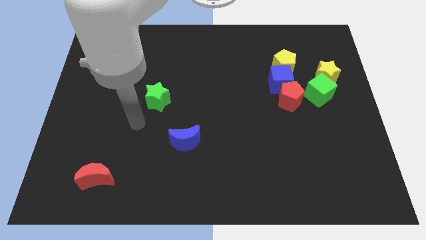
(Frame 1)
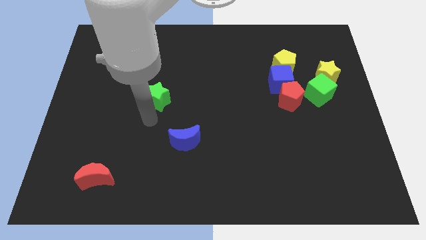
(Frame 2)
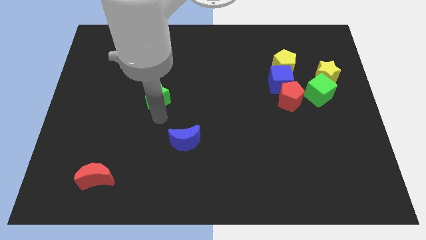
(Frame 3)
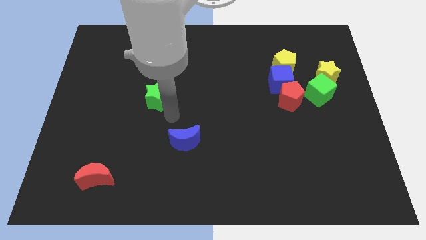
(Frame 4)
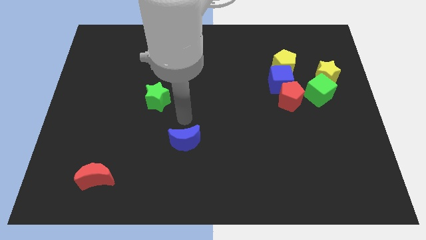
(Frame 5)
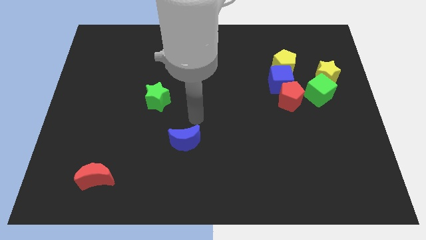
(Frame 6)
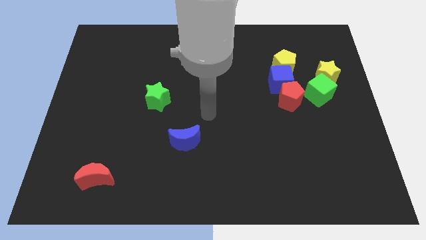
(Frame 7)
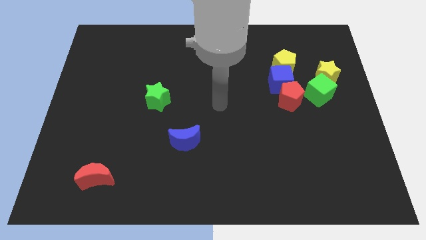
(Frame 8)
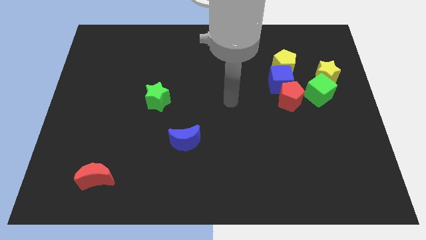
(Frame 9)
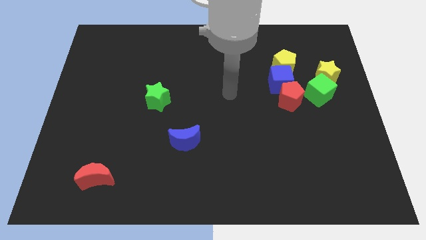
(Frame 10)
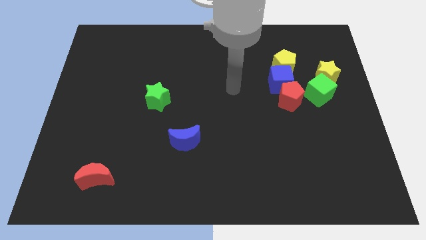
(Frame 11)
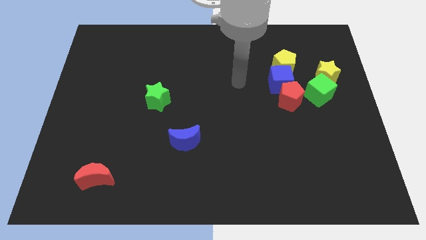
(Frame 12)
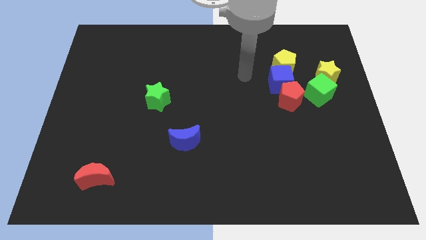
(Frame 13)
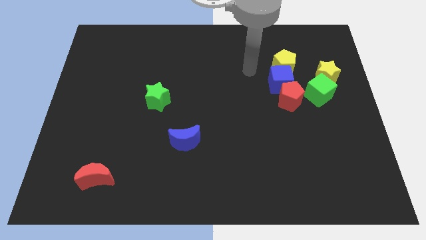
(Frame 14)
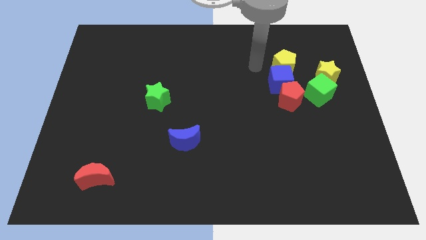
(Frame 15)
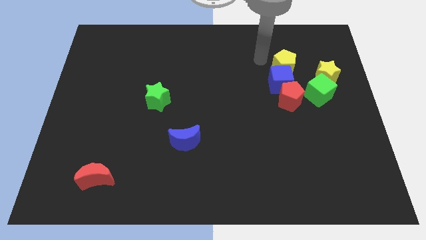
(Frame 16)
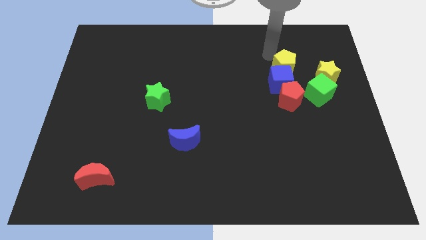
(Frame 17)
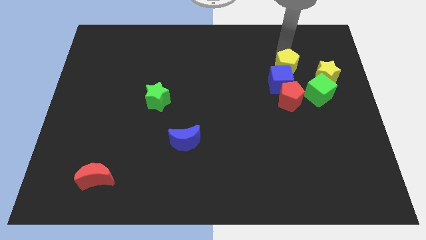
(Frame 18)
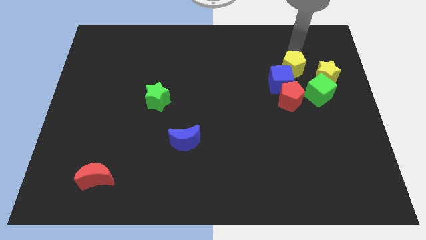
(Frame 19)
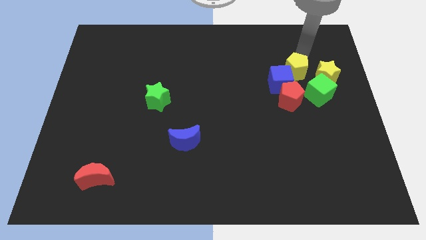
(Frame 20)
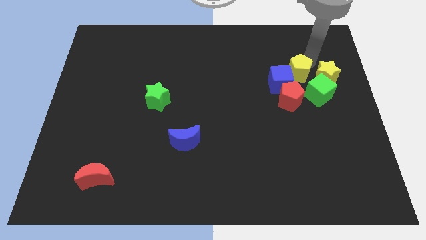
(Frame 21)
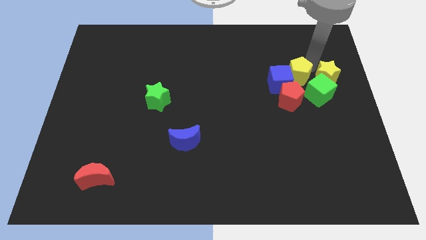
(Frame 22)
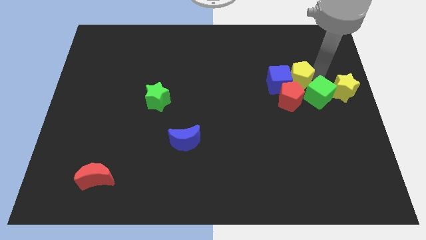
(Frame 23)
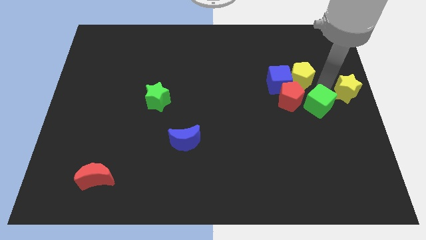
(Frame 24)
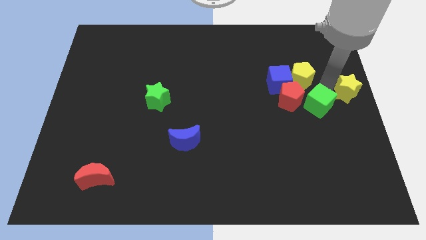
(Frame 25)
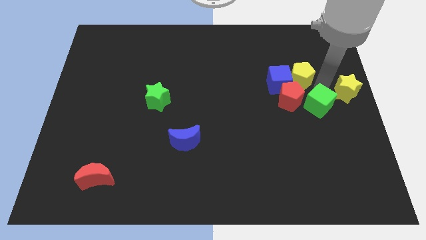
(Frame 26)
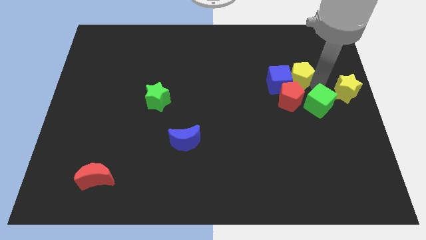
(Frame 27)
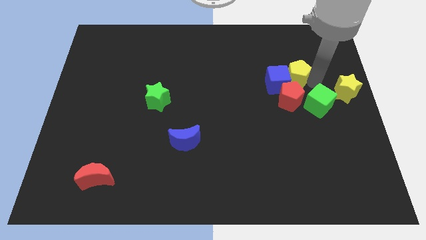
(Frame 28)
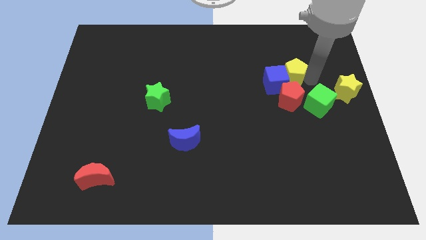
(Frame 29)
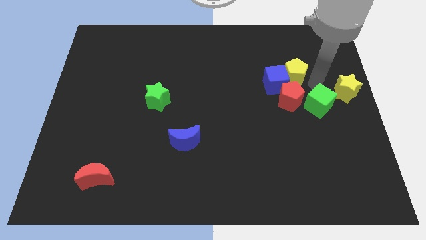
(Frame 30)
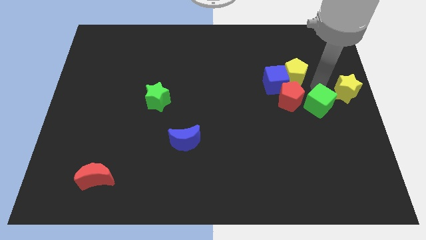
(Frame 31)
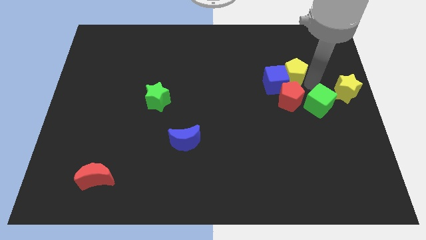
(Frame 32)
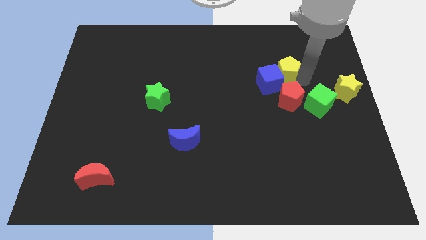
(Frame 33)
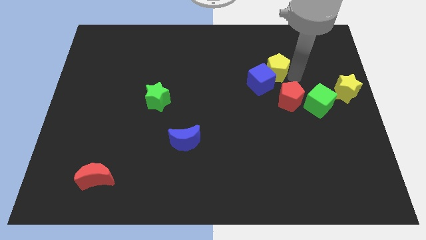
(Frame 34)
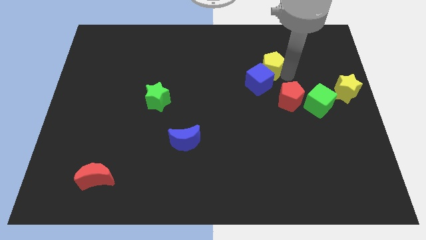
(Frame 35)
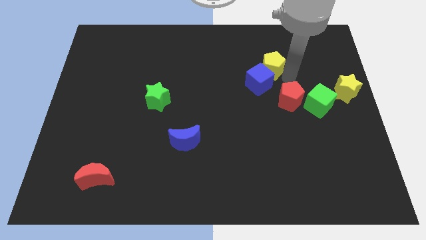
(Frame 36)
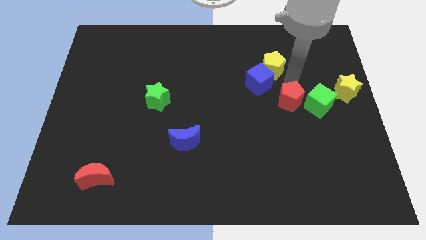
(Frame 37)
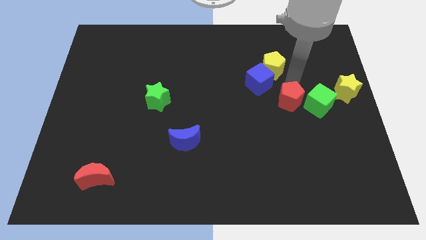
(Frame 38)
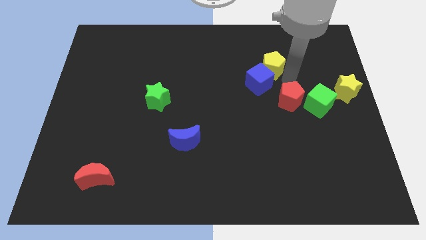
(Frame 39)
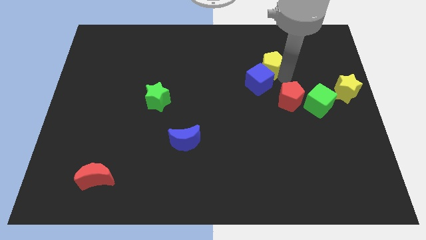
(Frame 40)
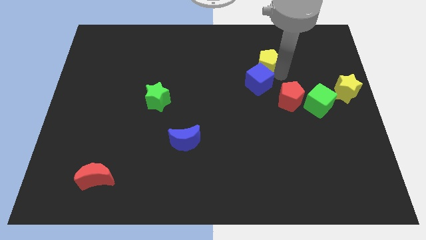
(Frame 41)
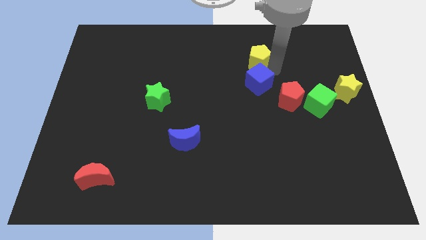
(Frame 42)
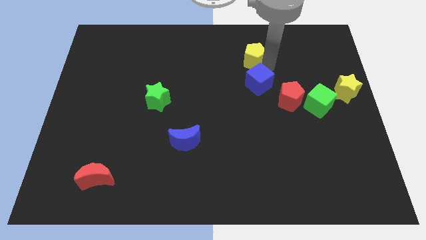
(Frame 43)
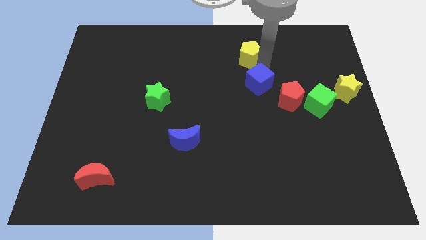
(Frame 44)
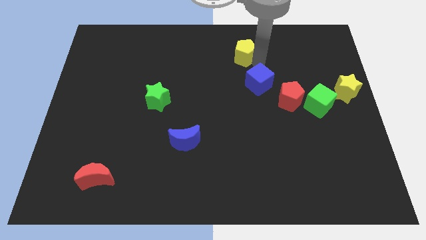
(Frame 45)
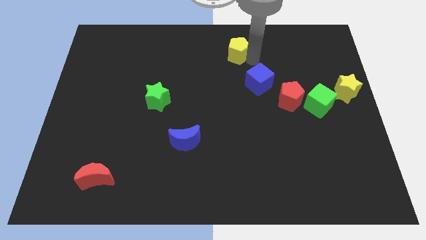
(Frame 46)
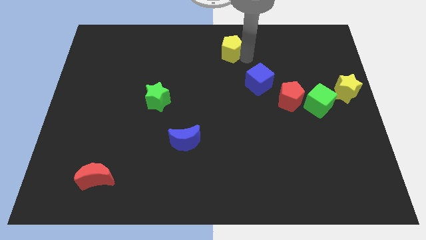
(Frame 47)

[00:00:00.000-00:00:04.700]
put the yellow pentagon to the top

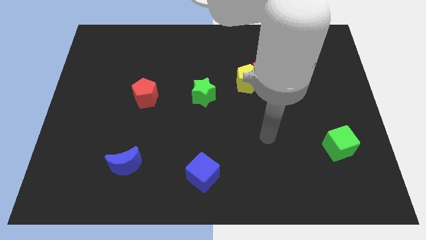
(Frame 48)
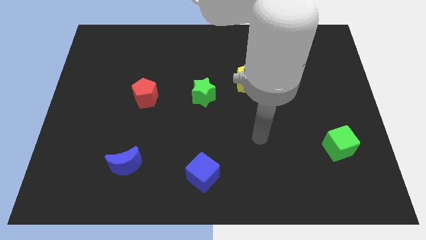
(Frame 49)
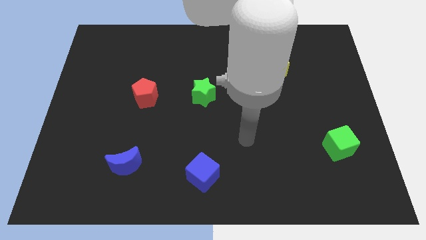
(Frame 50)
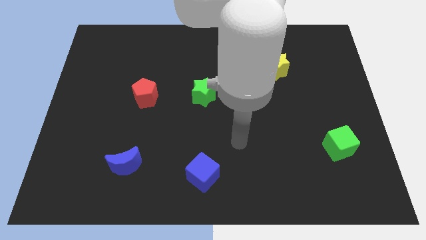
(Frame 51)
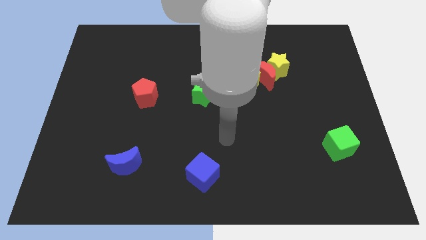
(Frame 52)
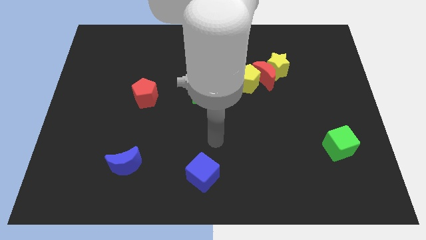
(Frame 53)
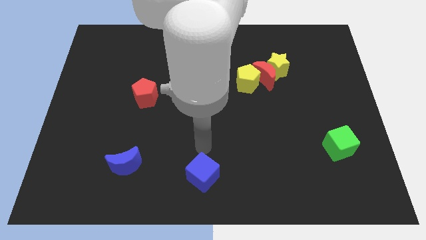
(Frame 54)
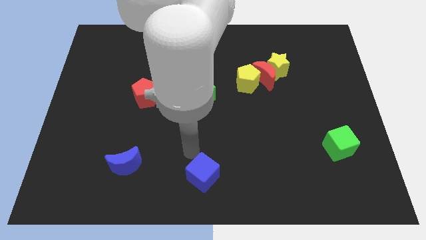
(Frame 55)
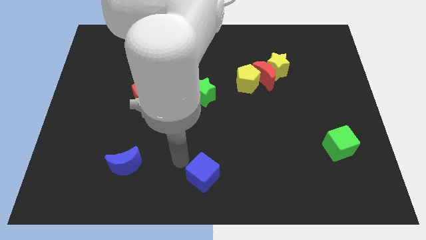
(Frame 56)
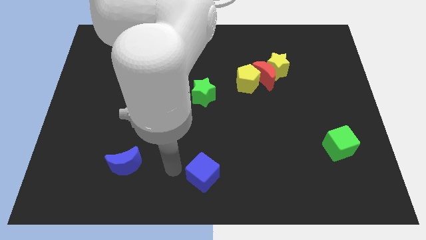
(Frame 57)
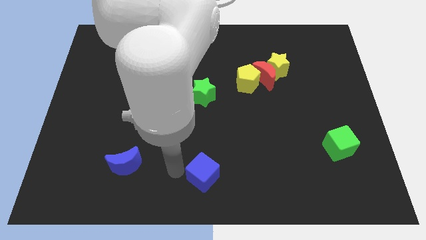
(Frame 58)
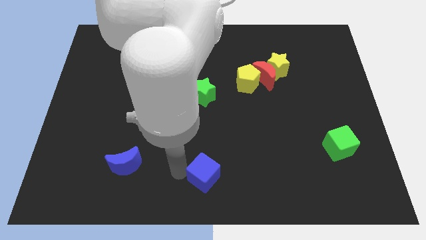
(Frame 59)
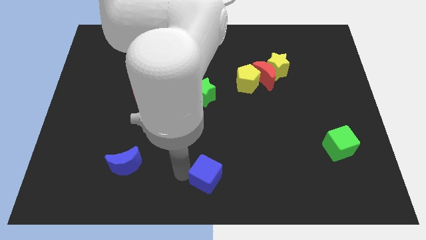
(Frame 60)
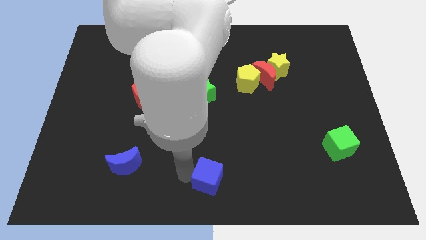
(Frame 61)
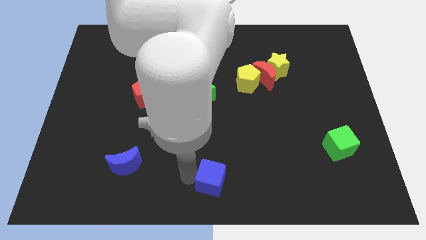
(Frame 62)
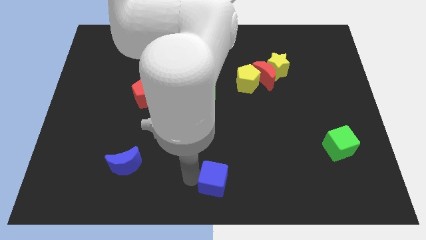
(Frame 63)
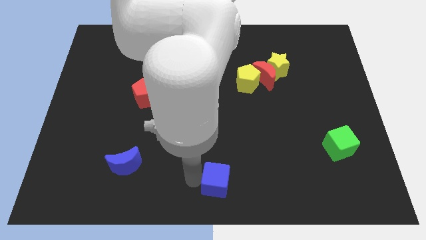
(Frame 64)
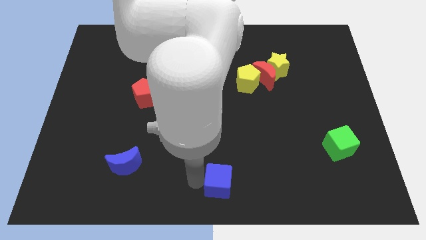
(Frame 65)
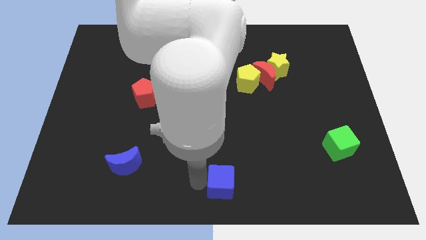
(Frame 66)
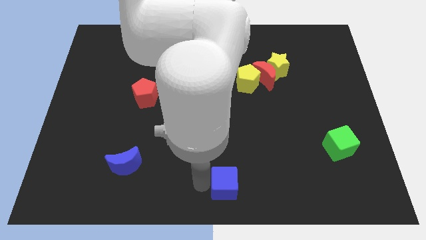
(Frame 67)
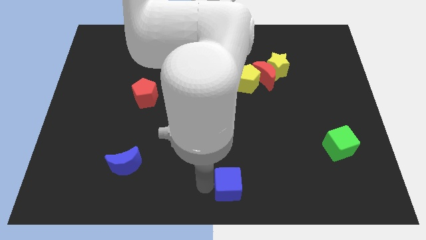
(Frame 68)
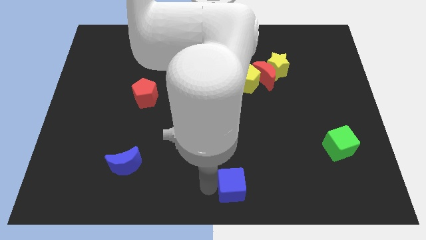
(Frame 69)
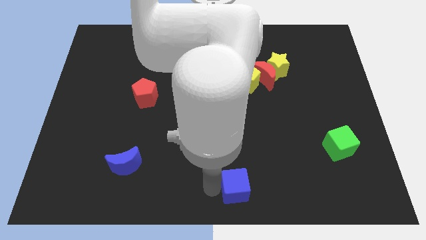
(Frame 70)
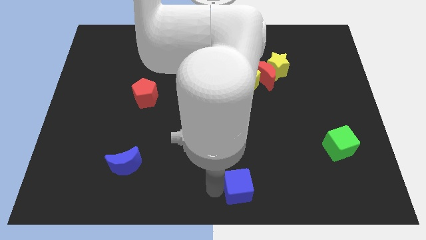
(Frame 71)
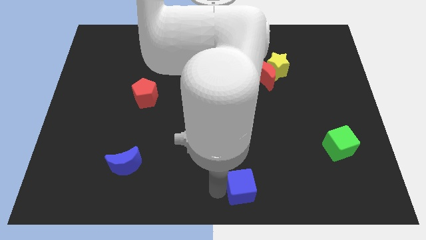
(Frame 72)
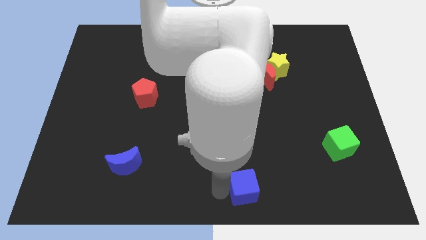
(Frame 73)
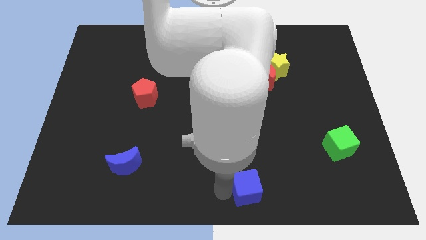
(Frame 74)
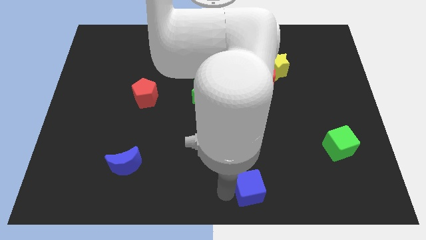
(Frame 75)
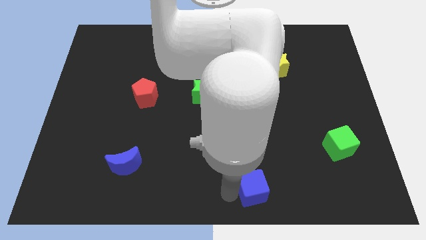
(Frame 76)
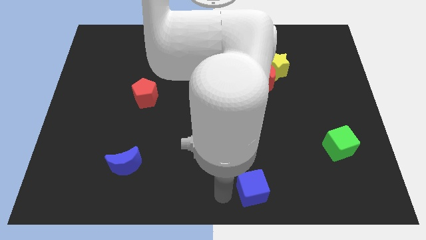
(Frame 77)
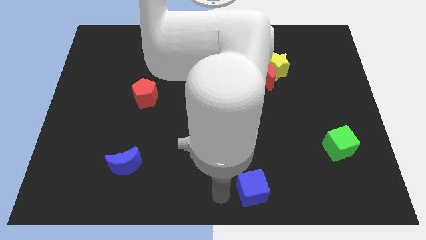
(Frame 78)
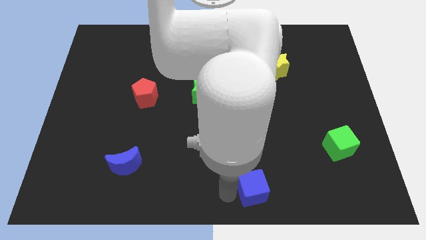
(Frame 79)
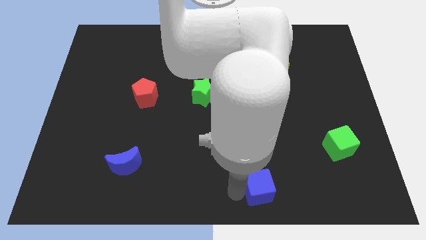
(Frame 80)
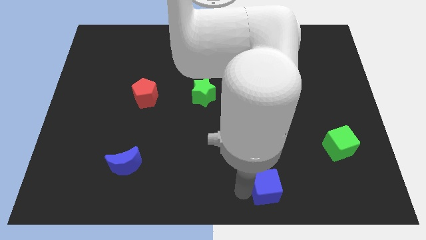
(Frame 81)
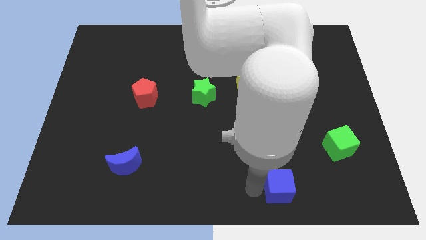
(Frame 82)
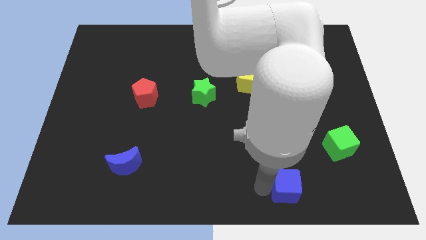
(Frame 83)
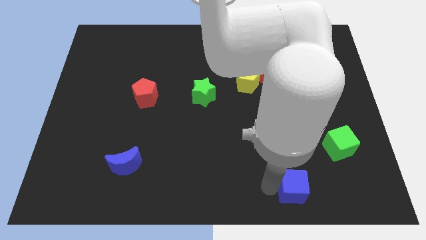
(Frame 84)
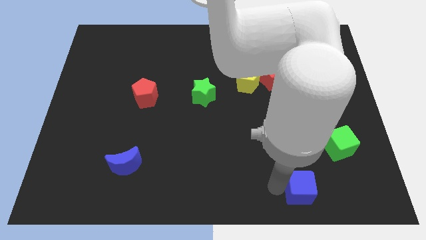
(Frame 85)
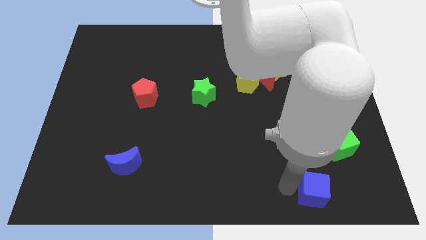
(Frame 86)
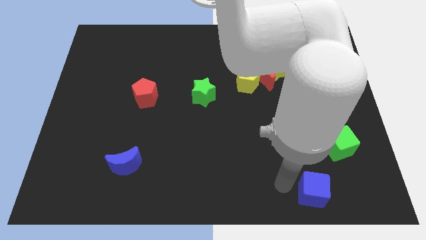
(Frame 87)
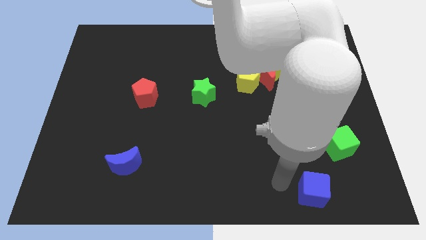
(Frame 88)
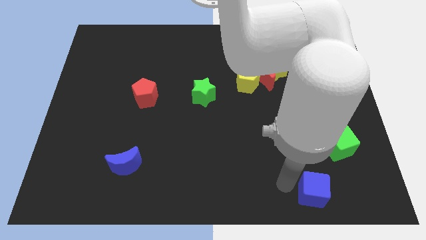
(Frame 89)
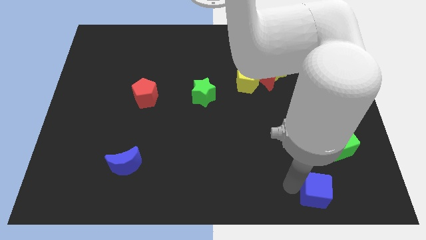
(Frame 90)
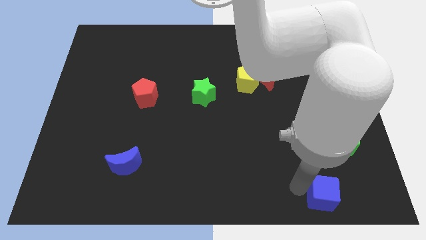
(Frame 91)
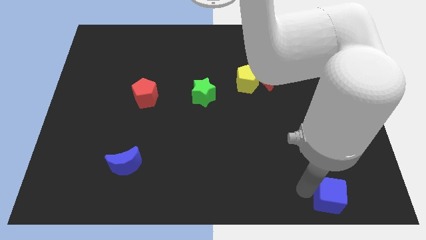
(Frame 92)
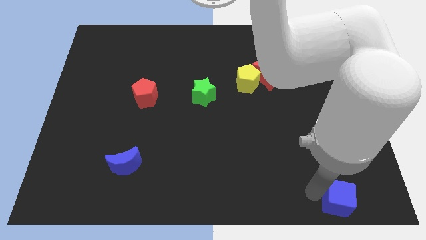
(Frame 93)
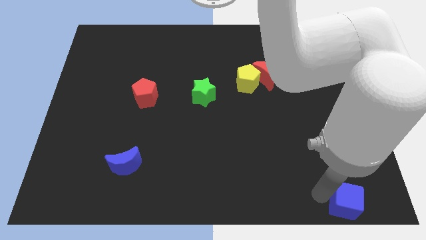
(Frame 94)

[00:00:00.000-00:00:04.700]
push the blue cube to the bottom right of the board
